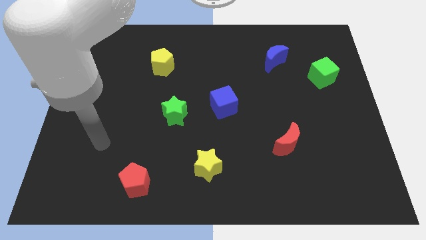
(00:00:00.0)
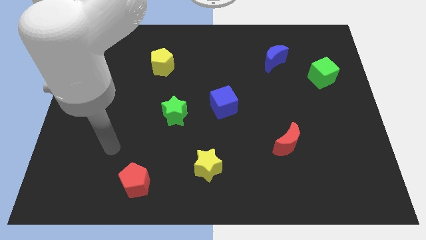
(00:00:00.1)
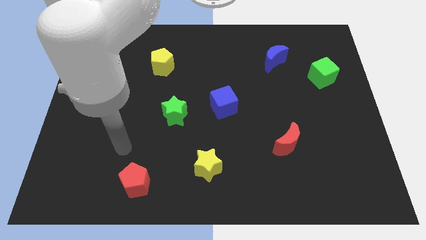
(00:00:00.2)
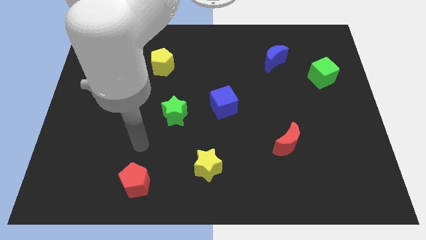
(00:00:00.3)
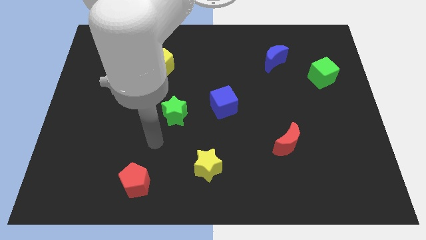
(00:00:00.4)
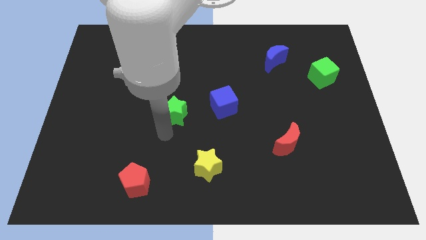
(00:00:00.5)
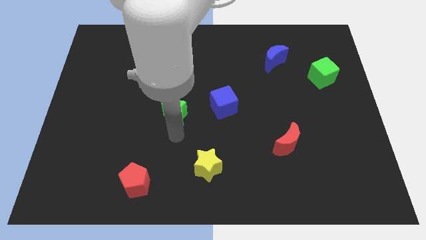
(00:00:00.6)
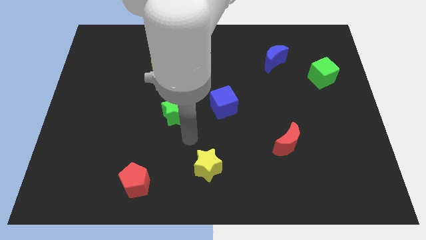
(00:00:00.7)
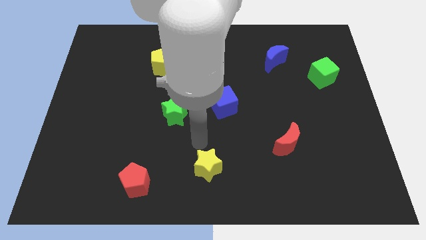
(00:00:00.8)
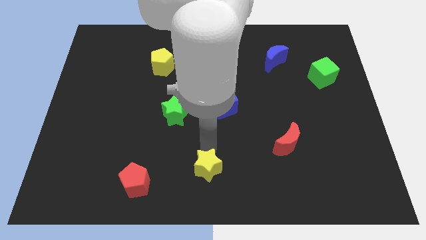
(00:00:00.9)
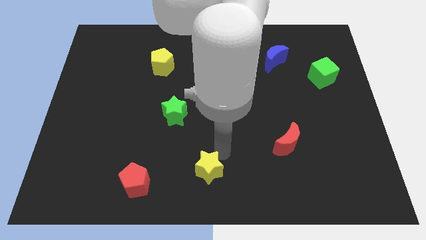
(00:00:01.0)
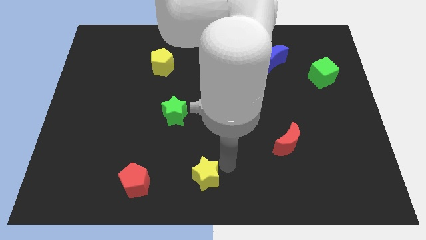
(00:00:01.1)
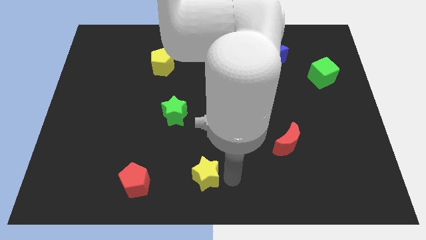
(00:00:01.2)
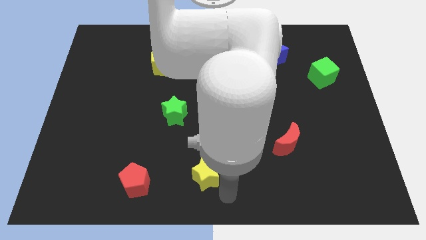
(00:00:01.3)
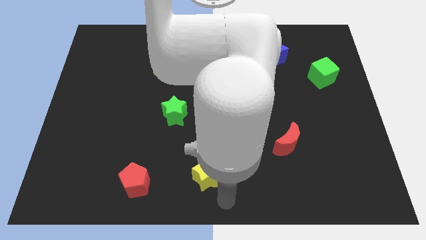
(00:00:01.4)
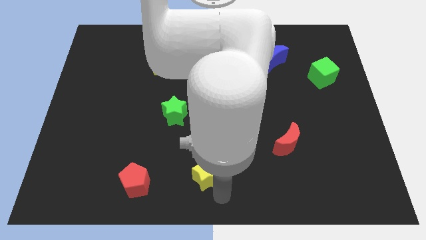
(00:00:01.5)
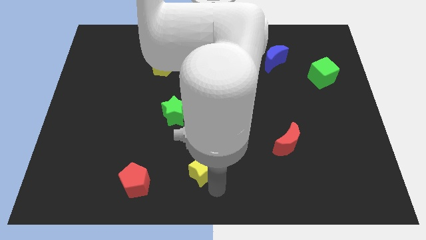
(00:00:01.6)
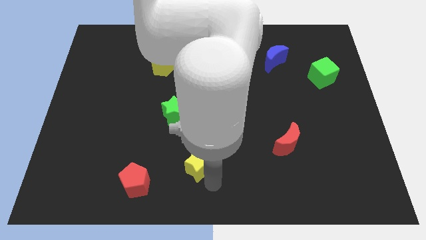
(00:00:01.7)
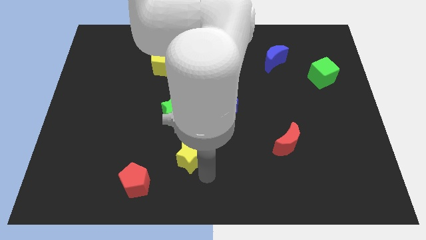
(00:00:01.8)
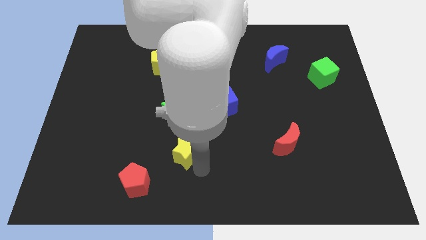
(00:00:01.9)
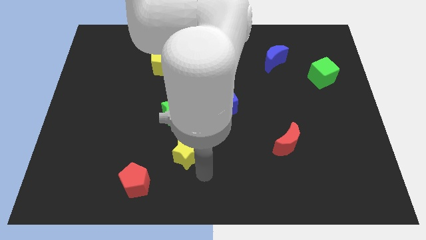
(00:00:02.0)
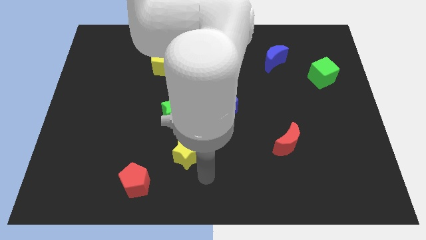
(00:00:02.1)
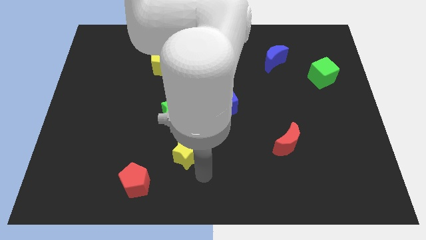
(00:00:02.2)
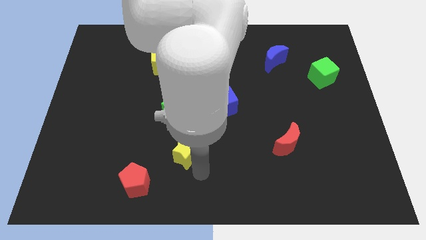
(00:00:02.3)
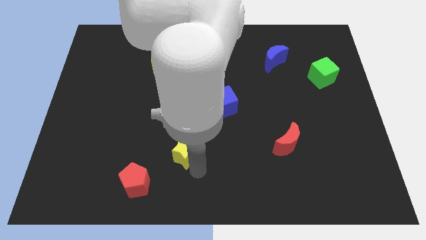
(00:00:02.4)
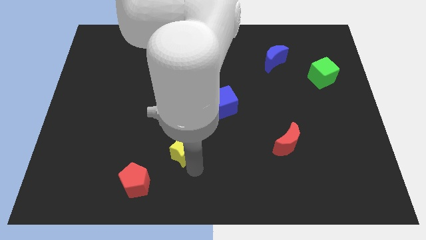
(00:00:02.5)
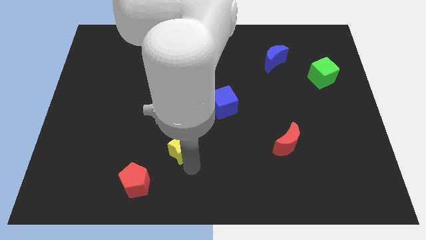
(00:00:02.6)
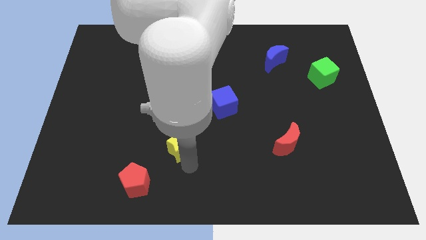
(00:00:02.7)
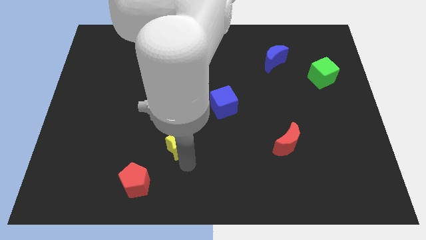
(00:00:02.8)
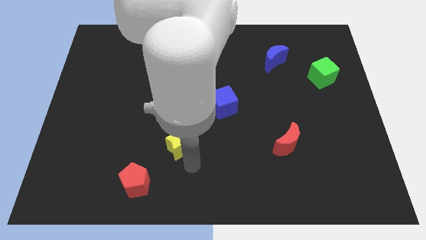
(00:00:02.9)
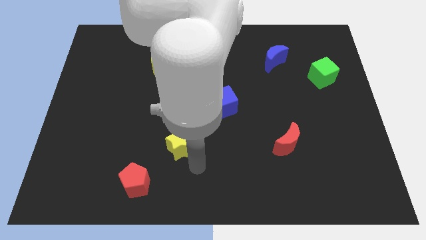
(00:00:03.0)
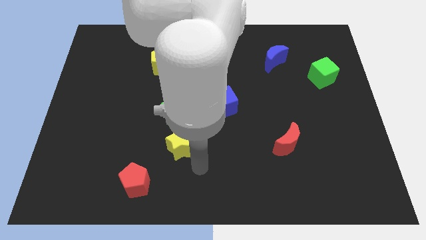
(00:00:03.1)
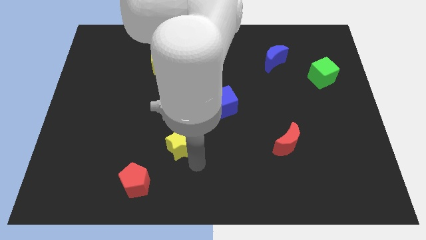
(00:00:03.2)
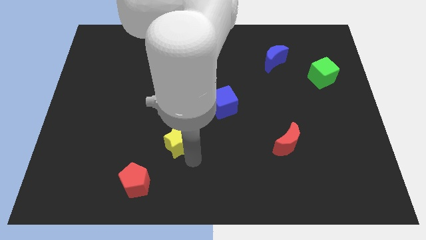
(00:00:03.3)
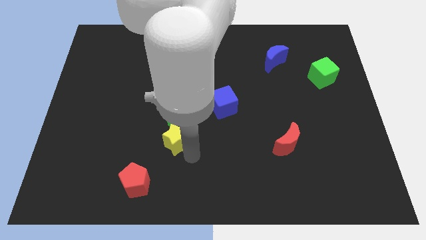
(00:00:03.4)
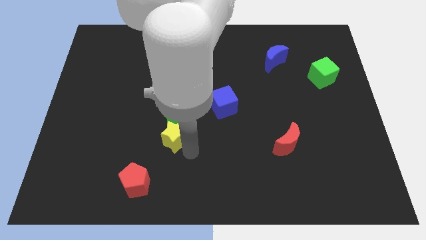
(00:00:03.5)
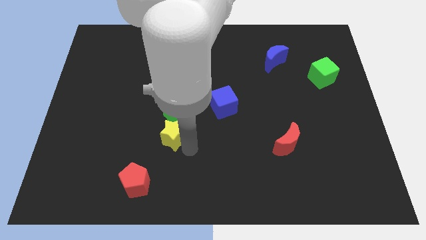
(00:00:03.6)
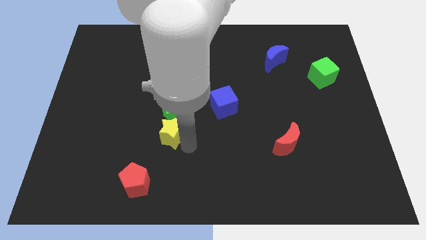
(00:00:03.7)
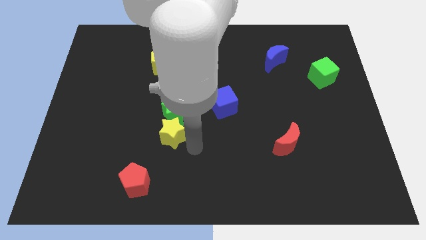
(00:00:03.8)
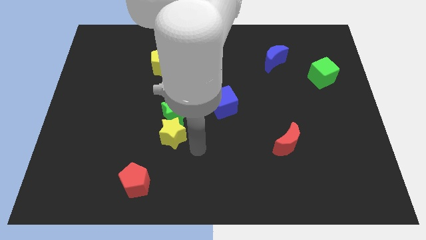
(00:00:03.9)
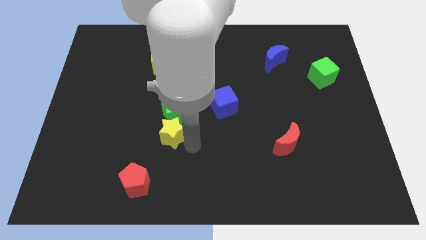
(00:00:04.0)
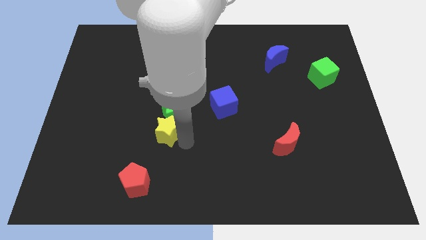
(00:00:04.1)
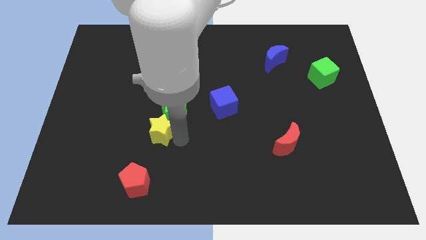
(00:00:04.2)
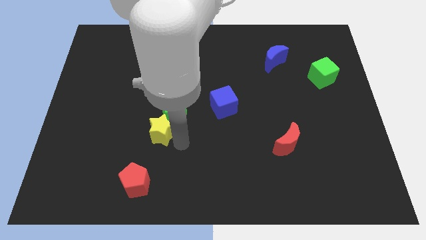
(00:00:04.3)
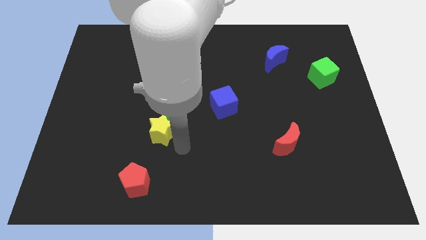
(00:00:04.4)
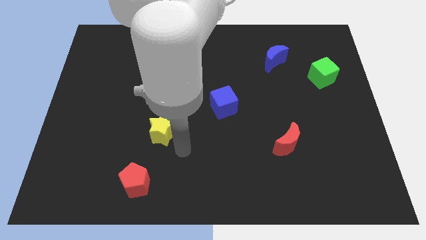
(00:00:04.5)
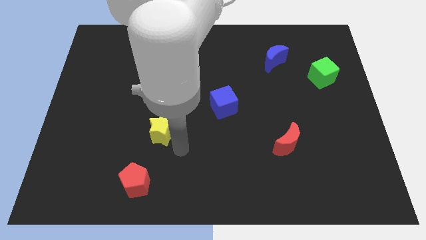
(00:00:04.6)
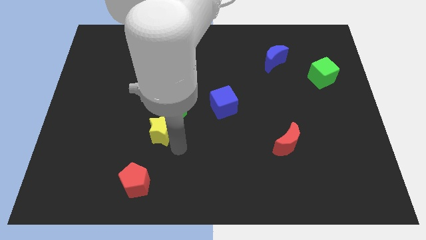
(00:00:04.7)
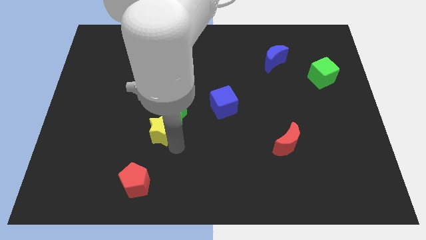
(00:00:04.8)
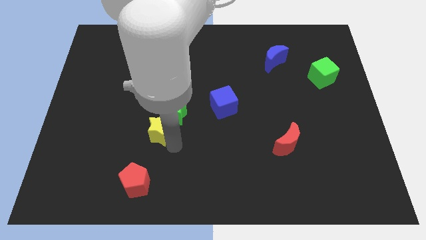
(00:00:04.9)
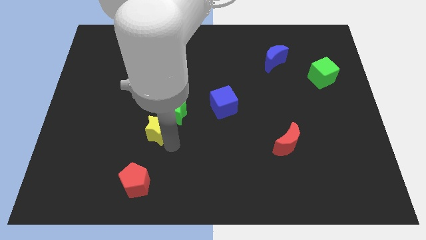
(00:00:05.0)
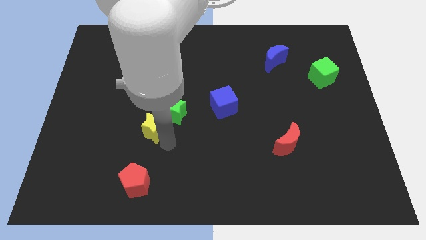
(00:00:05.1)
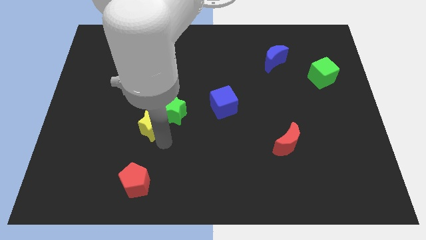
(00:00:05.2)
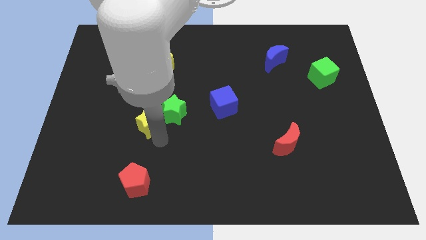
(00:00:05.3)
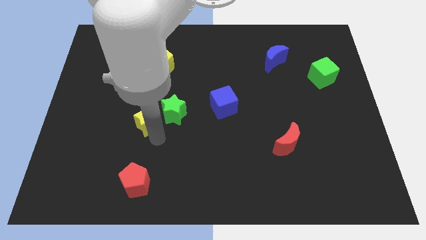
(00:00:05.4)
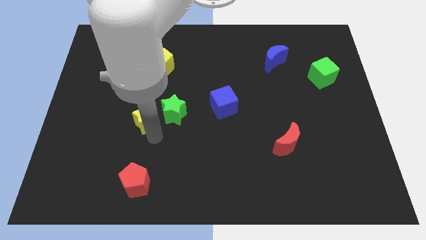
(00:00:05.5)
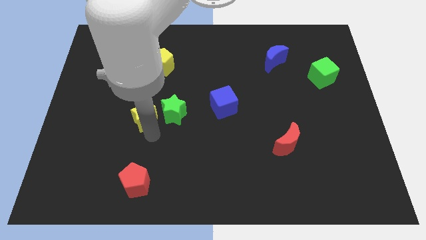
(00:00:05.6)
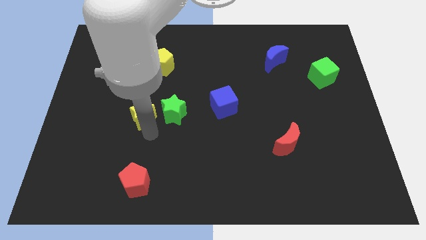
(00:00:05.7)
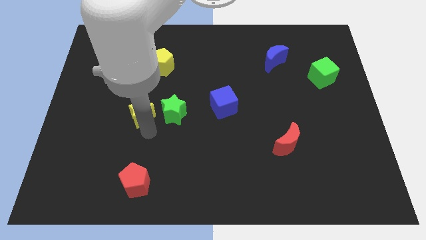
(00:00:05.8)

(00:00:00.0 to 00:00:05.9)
push the yellow star diagonally upwards and left

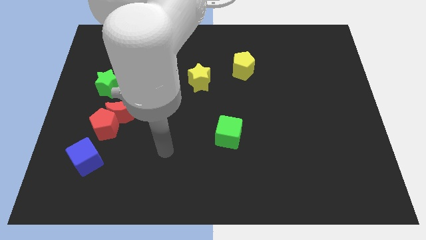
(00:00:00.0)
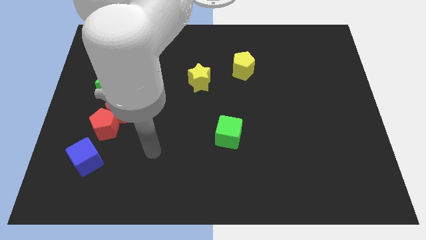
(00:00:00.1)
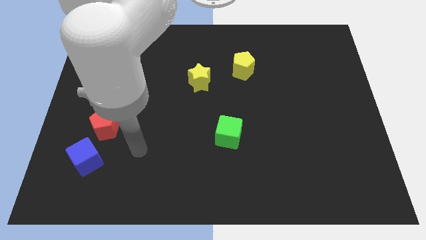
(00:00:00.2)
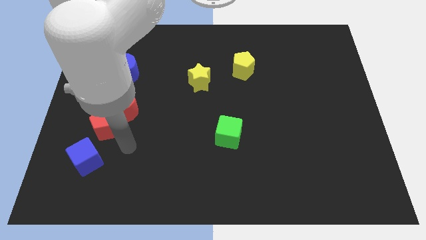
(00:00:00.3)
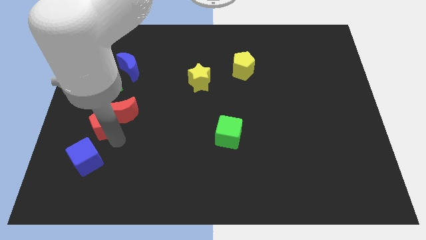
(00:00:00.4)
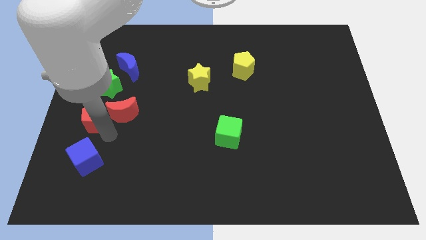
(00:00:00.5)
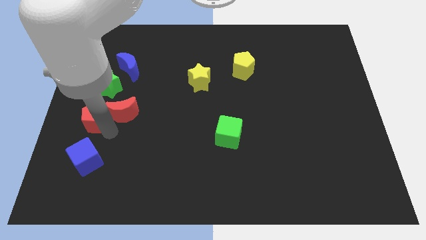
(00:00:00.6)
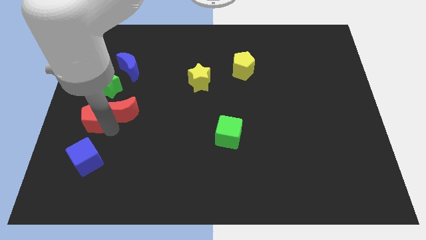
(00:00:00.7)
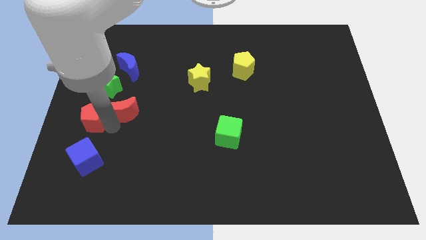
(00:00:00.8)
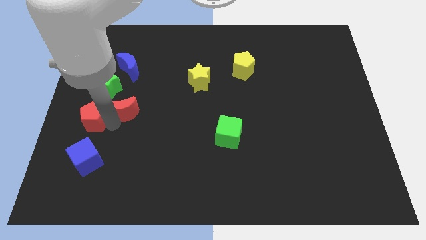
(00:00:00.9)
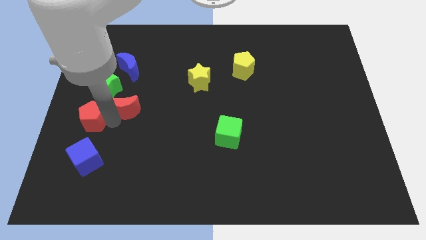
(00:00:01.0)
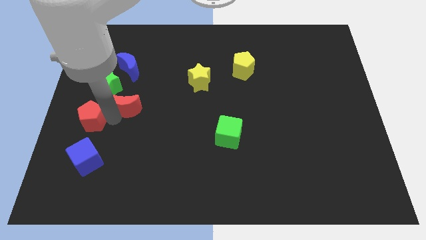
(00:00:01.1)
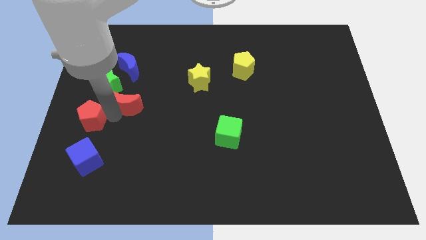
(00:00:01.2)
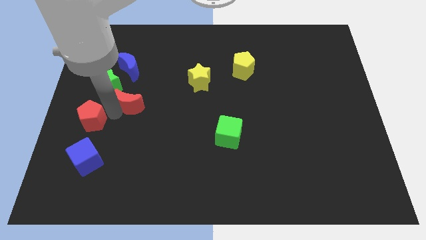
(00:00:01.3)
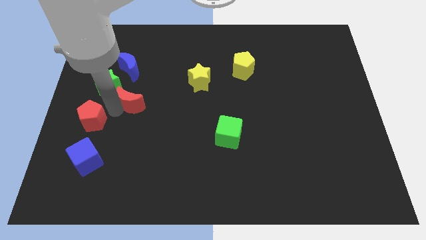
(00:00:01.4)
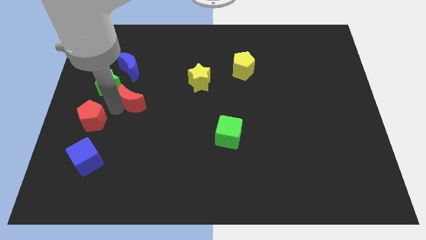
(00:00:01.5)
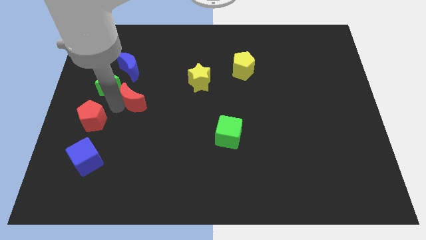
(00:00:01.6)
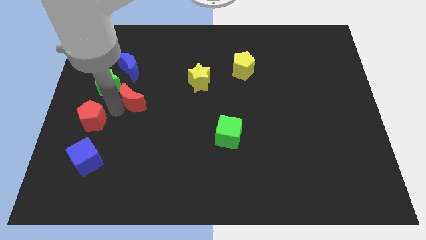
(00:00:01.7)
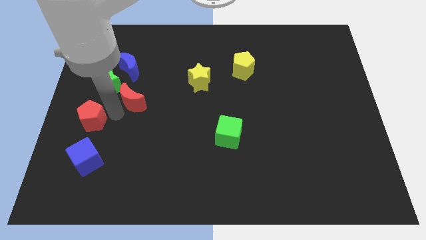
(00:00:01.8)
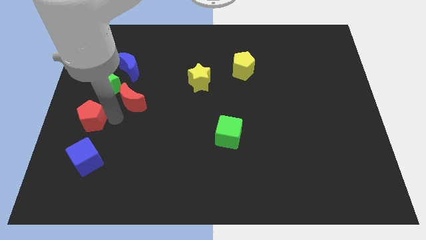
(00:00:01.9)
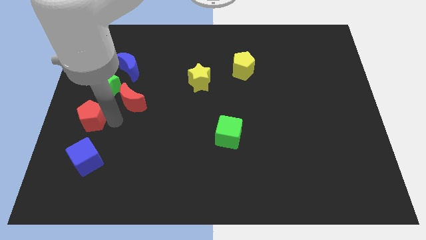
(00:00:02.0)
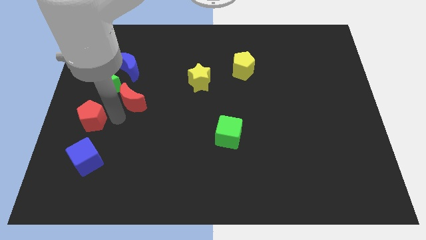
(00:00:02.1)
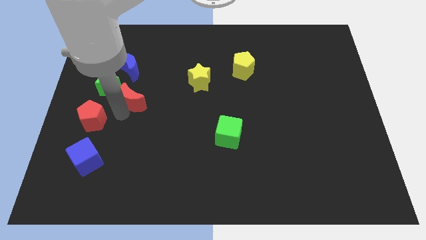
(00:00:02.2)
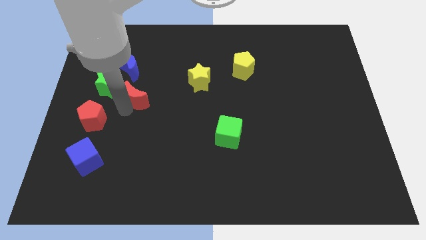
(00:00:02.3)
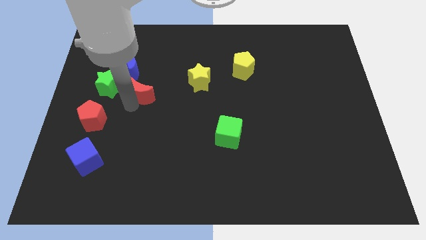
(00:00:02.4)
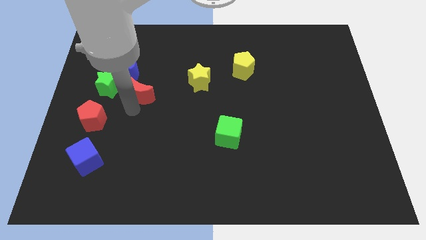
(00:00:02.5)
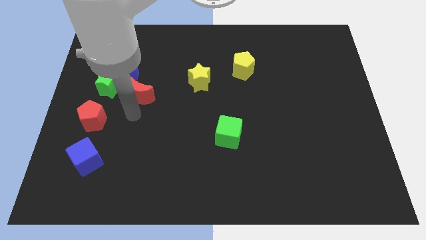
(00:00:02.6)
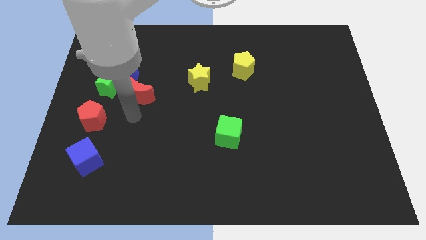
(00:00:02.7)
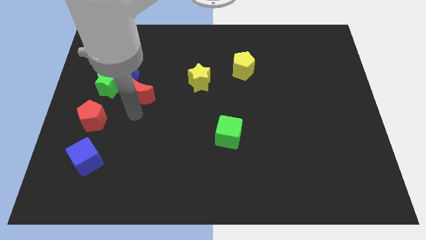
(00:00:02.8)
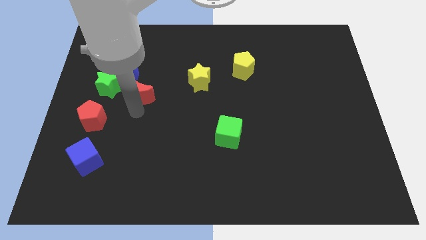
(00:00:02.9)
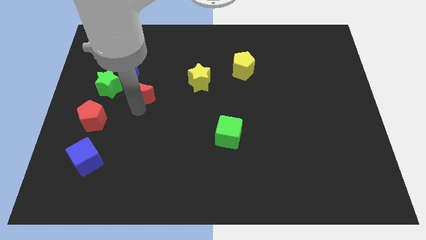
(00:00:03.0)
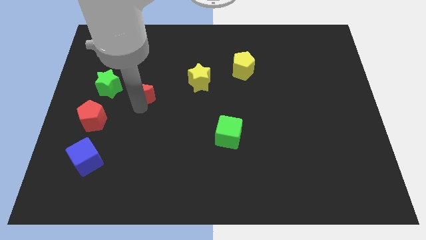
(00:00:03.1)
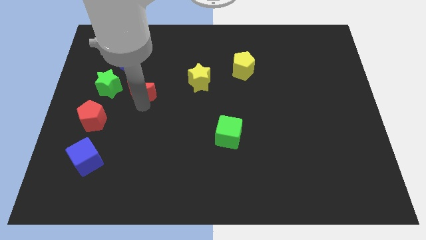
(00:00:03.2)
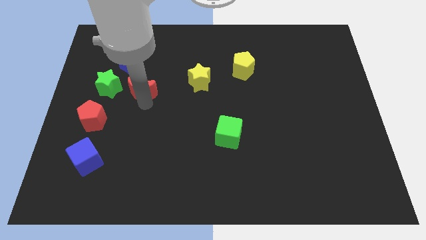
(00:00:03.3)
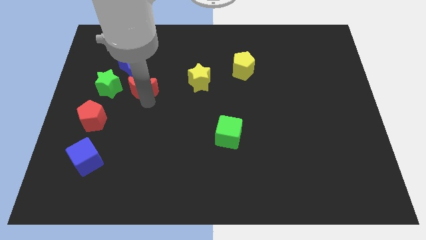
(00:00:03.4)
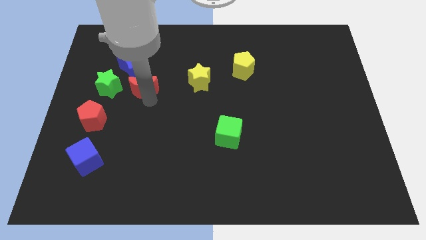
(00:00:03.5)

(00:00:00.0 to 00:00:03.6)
push the red moon a bit upwards
